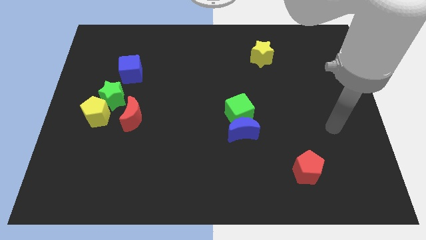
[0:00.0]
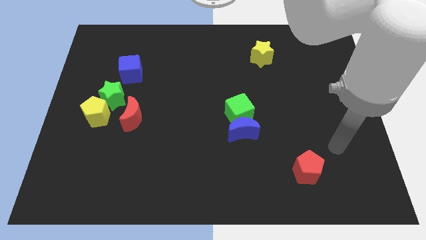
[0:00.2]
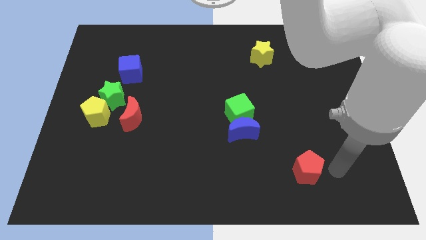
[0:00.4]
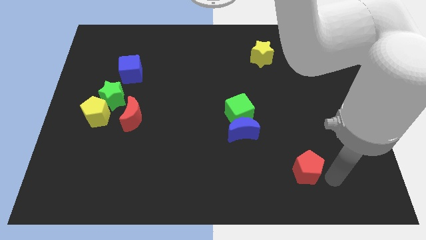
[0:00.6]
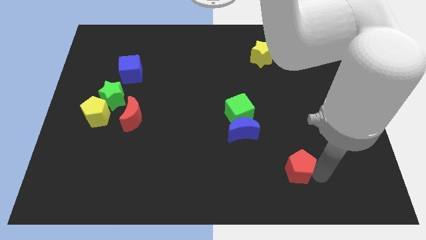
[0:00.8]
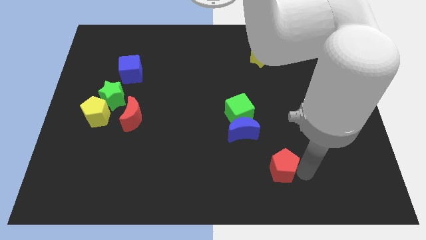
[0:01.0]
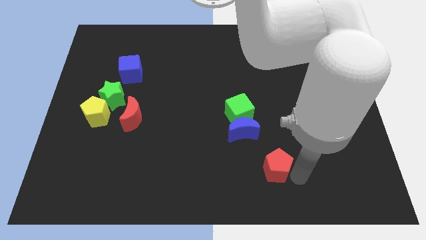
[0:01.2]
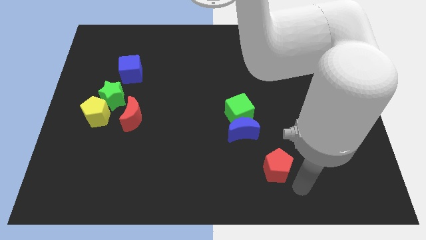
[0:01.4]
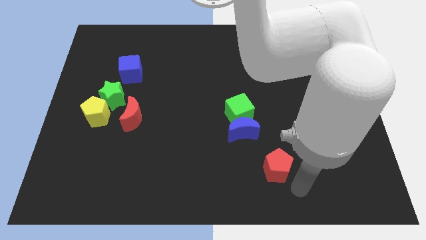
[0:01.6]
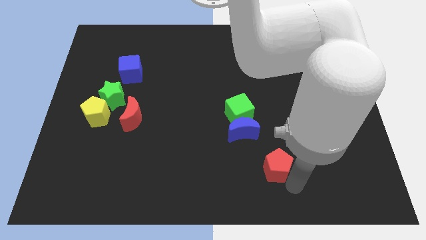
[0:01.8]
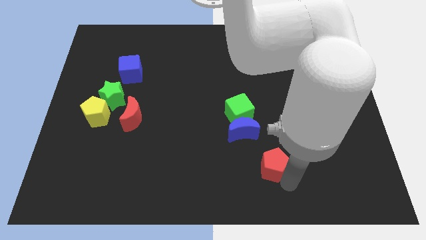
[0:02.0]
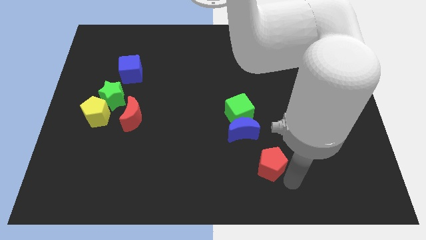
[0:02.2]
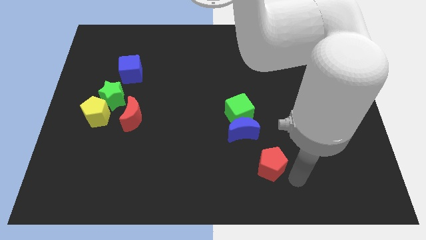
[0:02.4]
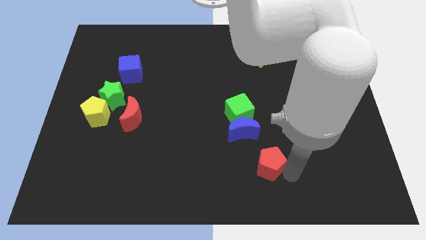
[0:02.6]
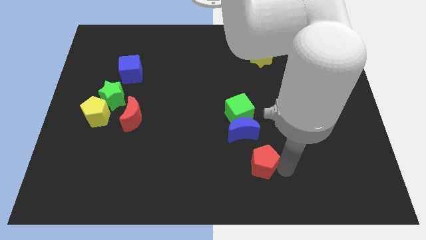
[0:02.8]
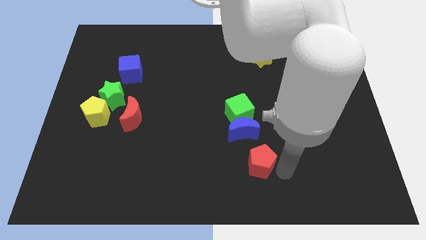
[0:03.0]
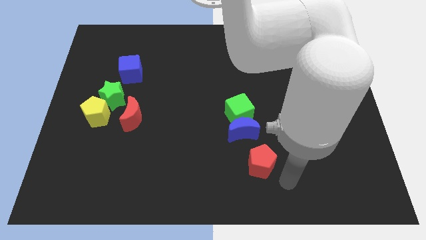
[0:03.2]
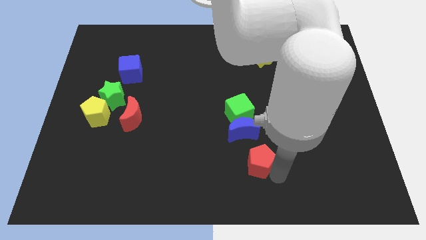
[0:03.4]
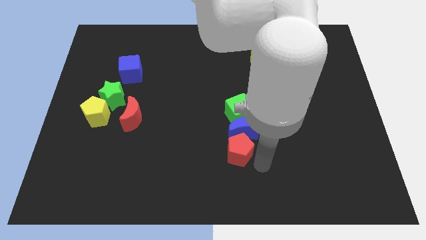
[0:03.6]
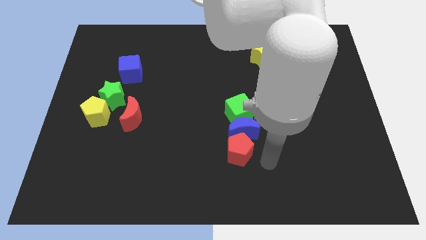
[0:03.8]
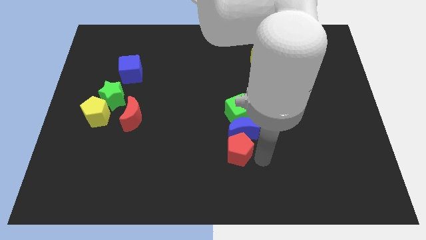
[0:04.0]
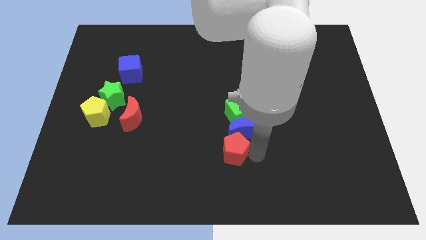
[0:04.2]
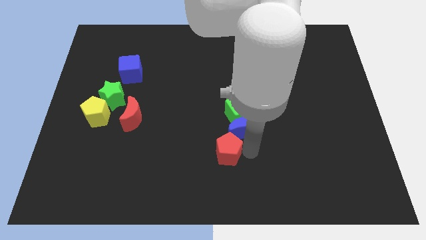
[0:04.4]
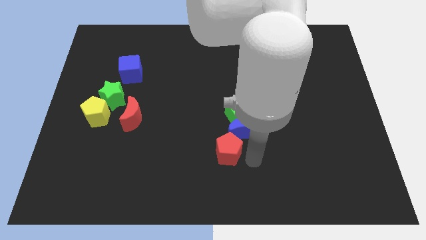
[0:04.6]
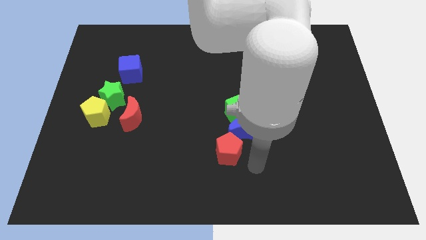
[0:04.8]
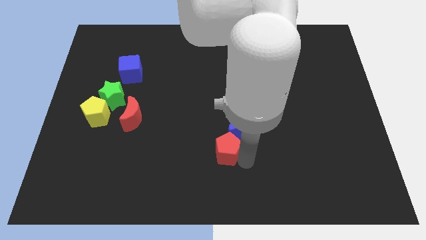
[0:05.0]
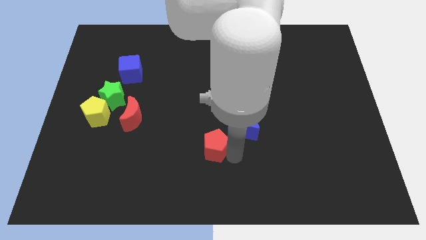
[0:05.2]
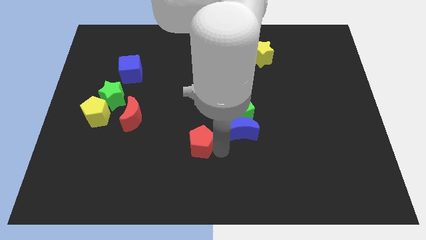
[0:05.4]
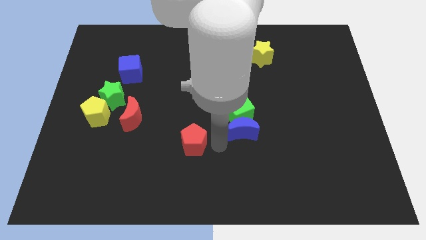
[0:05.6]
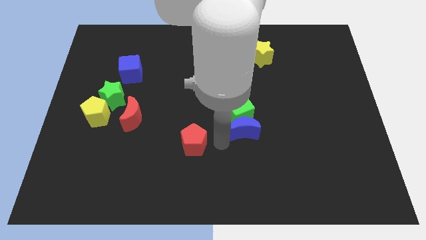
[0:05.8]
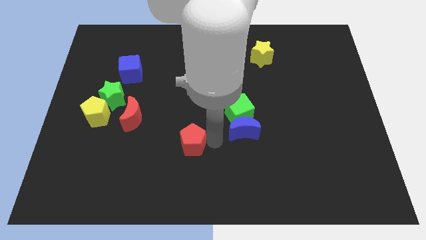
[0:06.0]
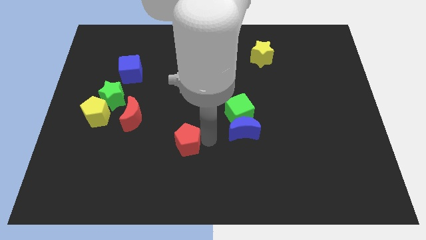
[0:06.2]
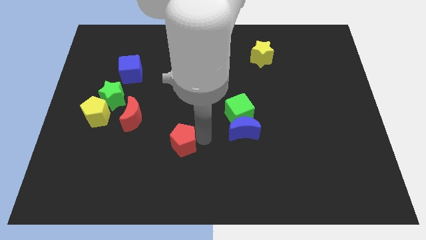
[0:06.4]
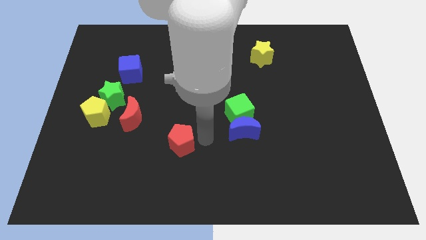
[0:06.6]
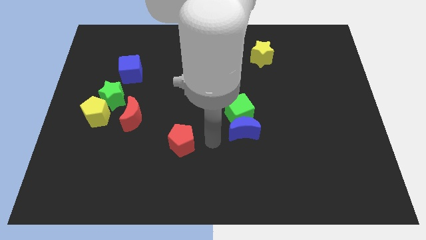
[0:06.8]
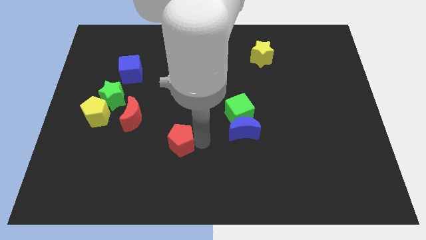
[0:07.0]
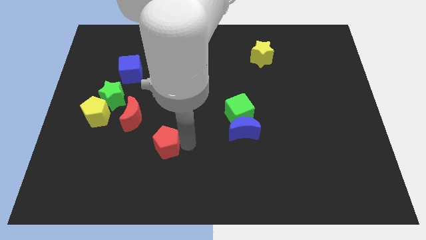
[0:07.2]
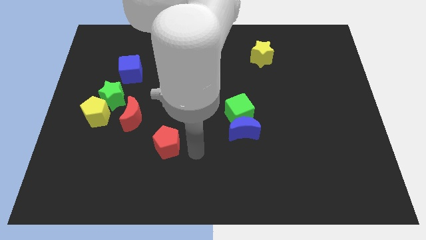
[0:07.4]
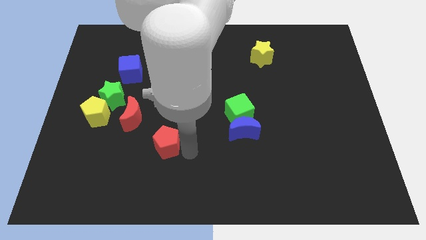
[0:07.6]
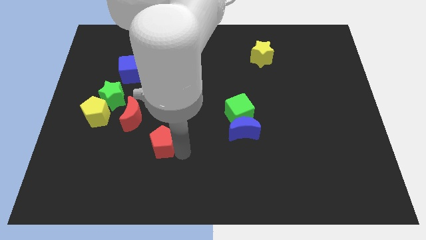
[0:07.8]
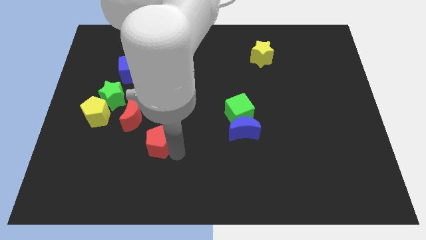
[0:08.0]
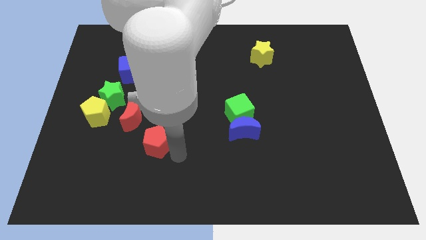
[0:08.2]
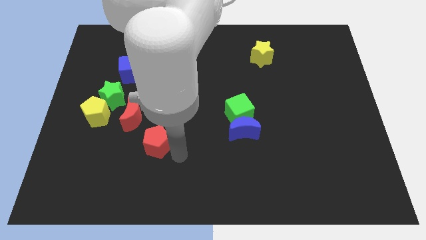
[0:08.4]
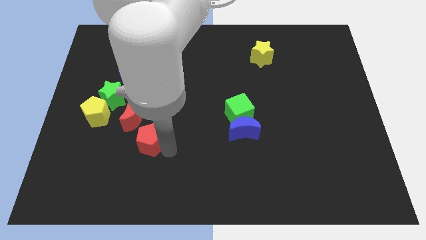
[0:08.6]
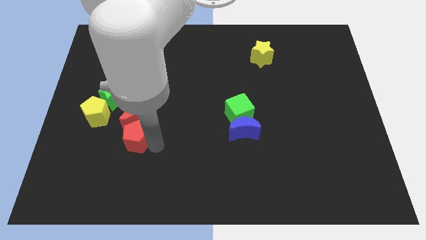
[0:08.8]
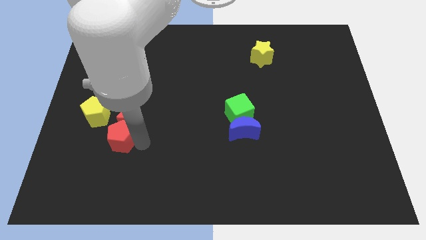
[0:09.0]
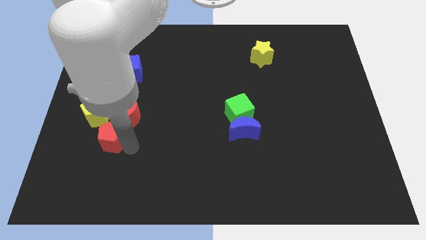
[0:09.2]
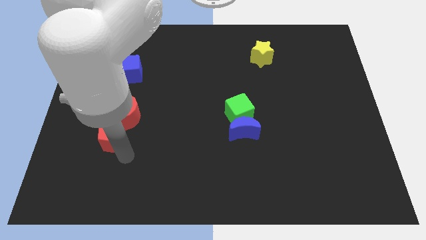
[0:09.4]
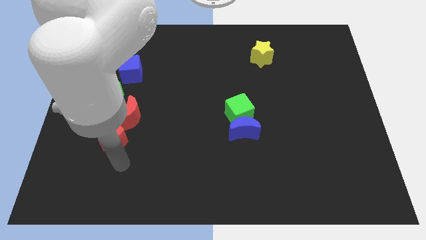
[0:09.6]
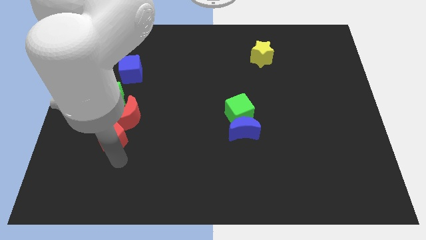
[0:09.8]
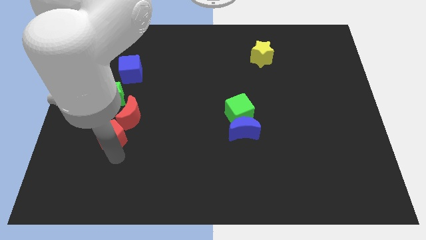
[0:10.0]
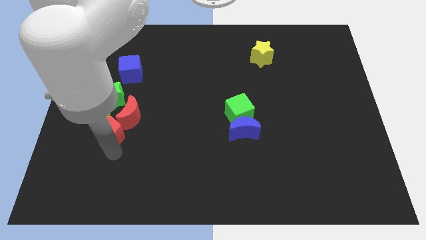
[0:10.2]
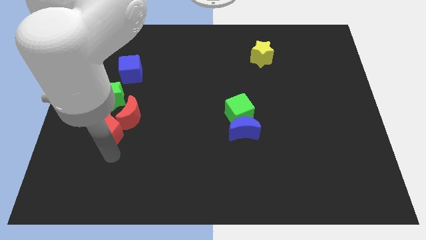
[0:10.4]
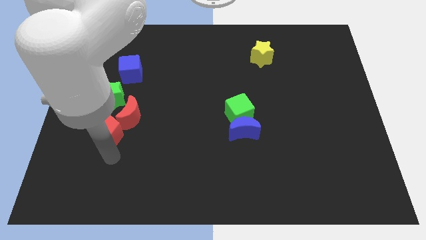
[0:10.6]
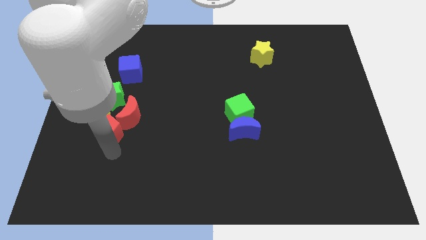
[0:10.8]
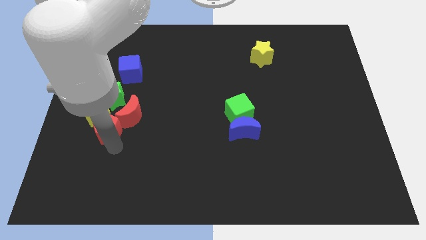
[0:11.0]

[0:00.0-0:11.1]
push the red pentagon next to the yellow pentagon

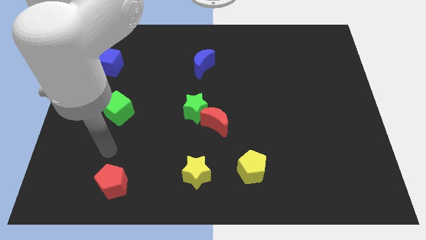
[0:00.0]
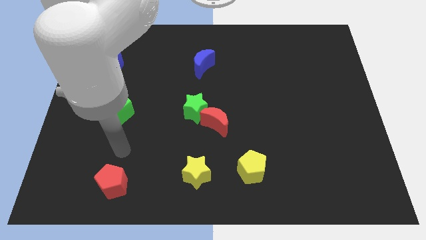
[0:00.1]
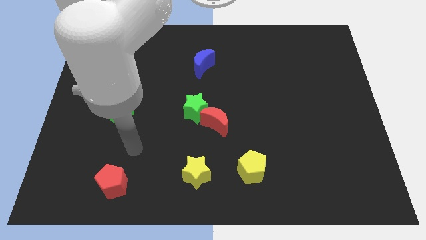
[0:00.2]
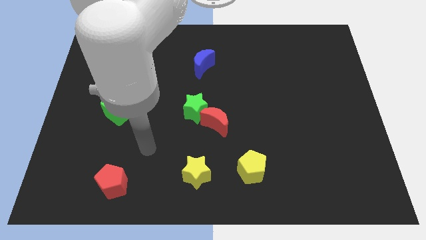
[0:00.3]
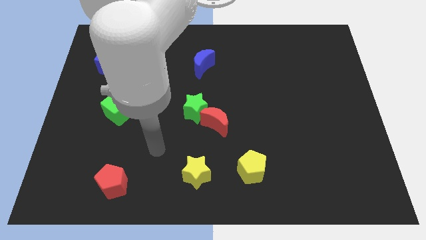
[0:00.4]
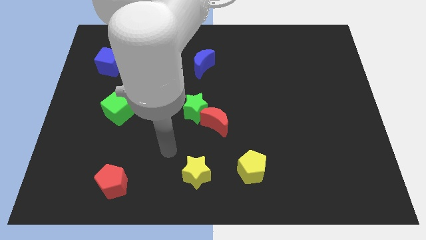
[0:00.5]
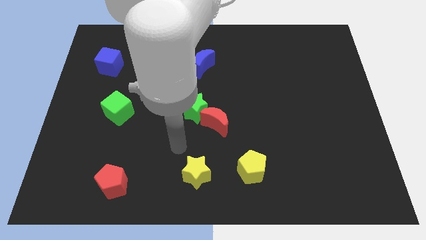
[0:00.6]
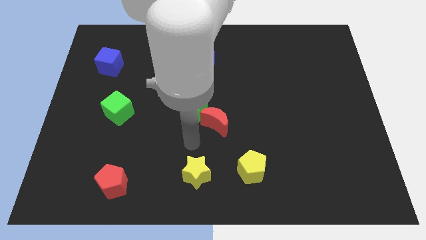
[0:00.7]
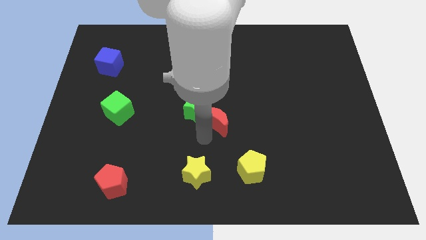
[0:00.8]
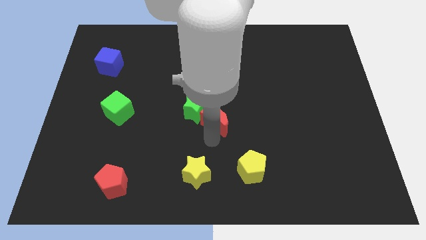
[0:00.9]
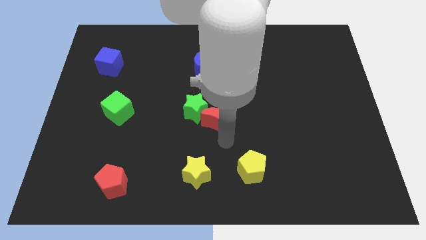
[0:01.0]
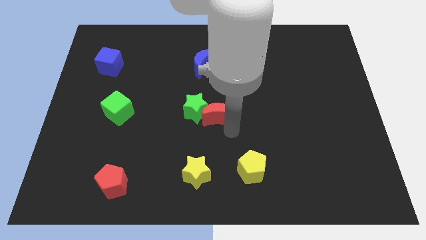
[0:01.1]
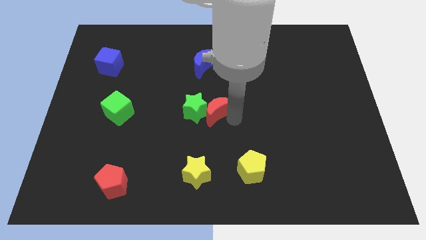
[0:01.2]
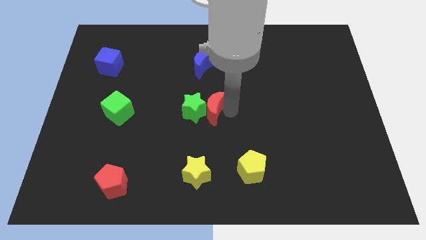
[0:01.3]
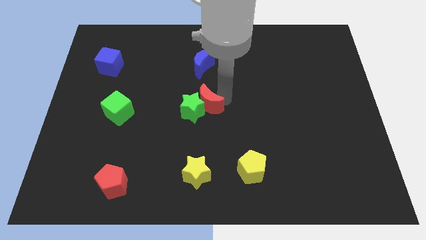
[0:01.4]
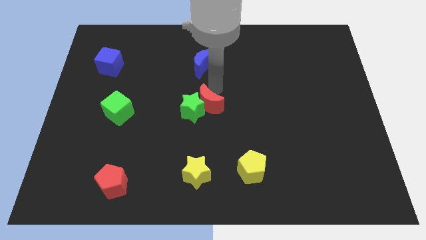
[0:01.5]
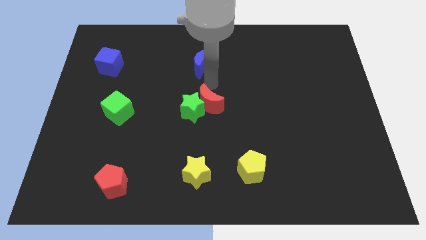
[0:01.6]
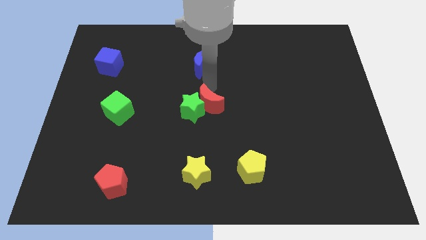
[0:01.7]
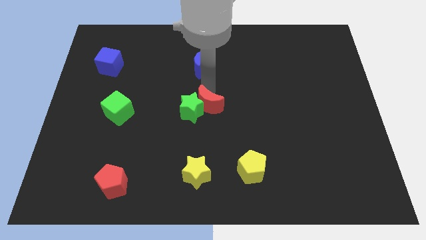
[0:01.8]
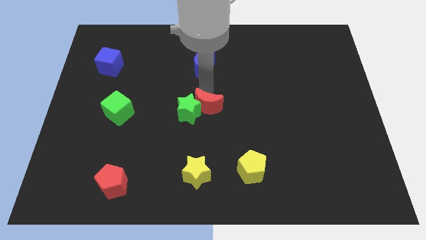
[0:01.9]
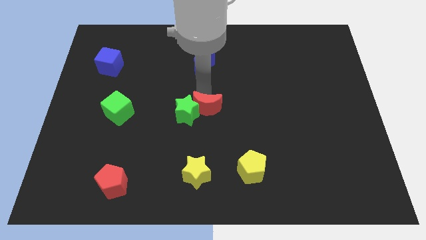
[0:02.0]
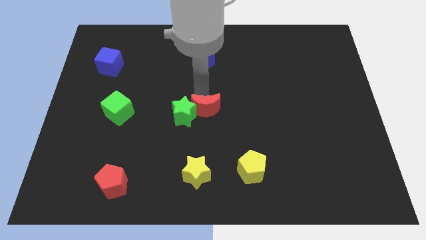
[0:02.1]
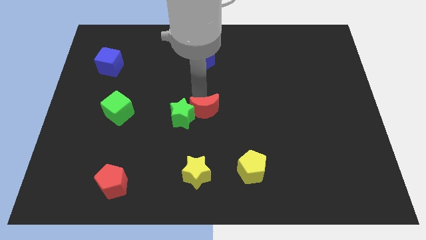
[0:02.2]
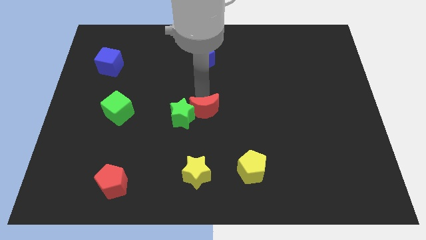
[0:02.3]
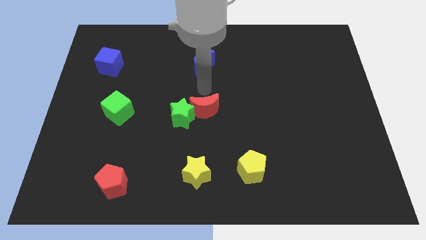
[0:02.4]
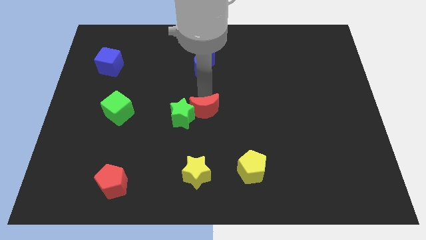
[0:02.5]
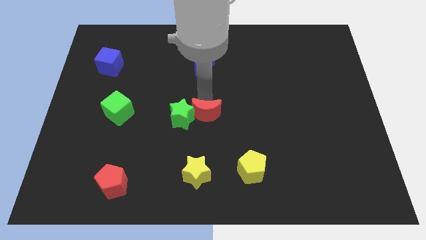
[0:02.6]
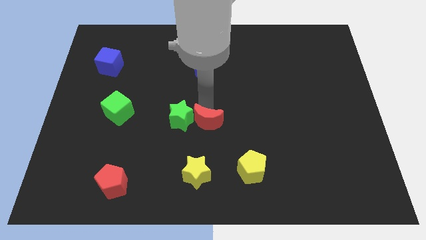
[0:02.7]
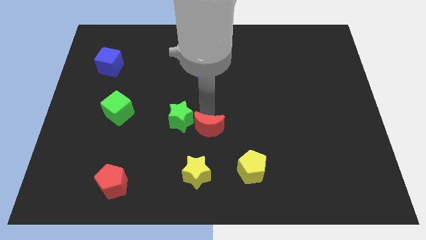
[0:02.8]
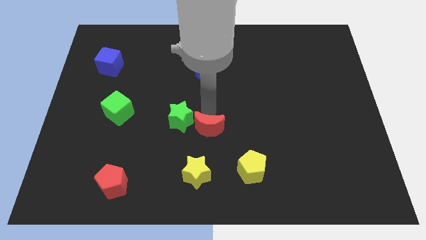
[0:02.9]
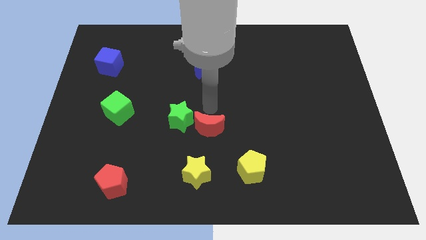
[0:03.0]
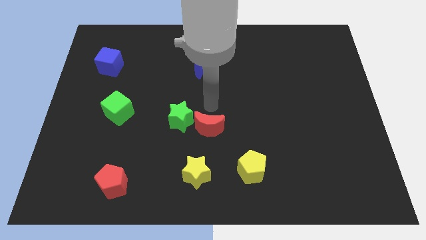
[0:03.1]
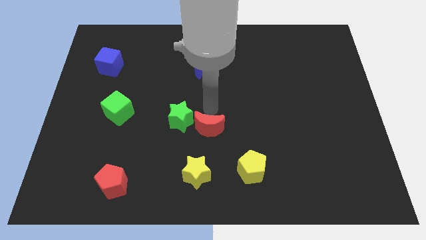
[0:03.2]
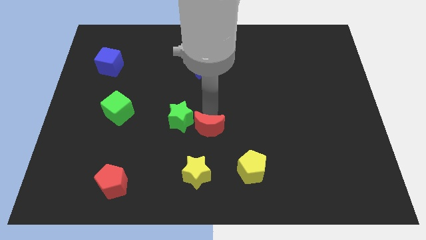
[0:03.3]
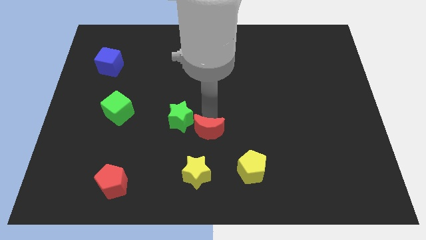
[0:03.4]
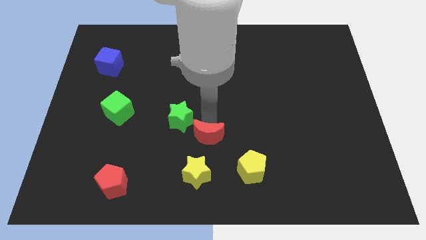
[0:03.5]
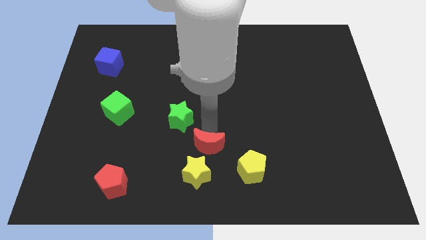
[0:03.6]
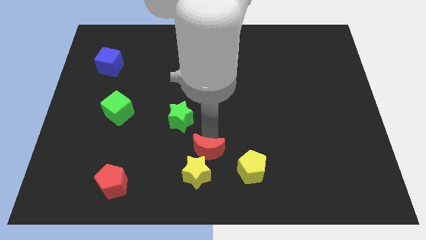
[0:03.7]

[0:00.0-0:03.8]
move the red moon next to the yellow star
